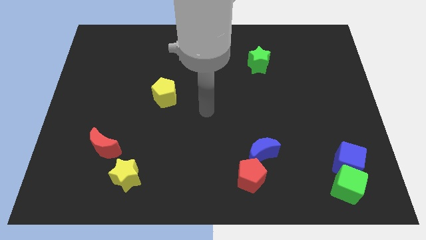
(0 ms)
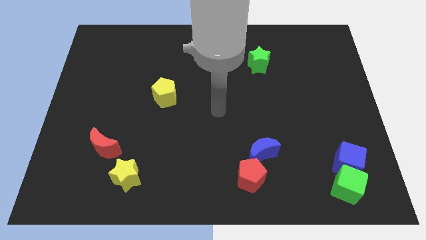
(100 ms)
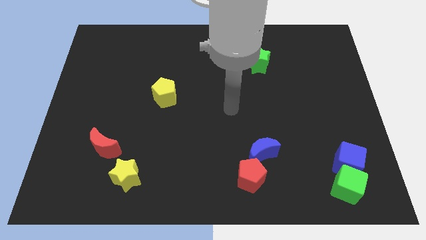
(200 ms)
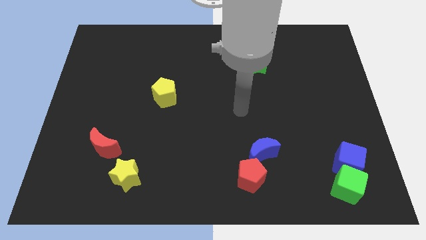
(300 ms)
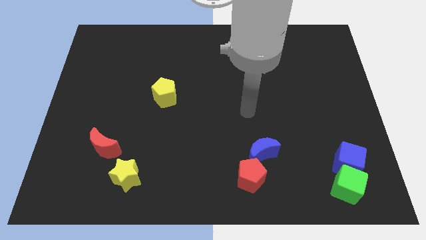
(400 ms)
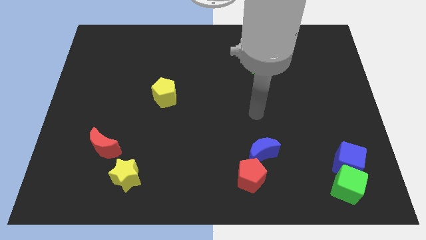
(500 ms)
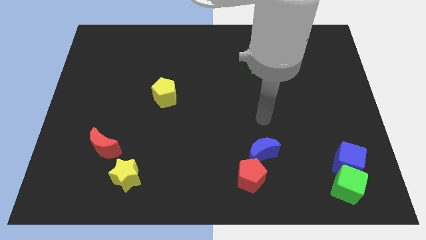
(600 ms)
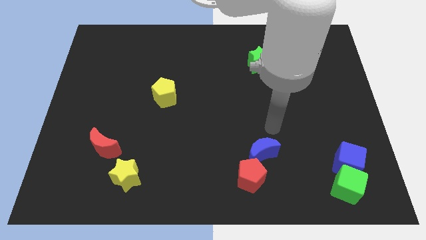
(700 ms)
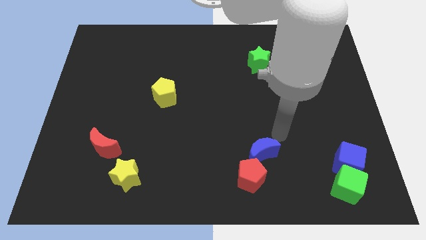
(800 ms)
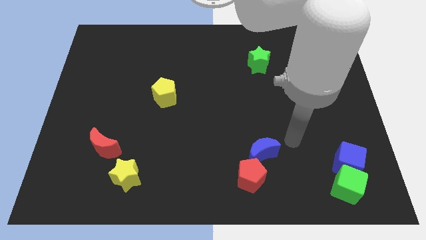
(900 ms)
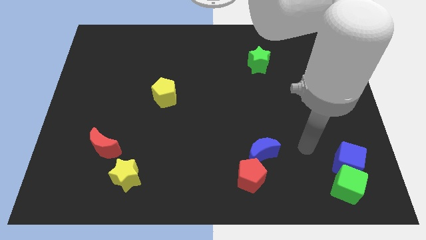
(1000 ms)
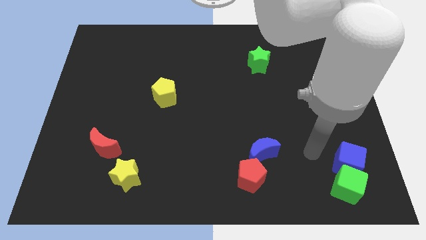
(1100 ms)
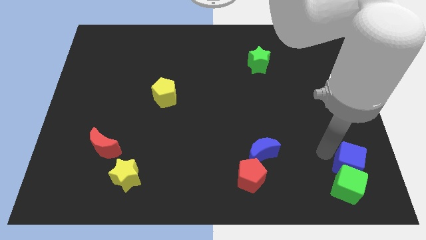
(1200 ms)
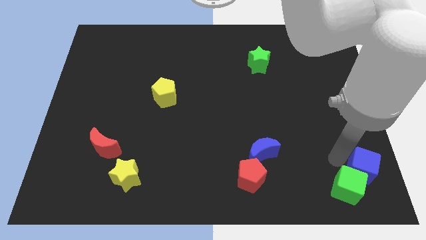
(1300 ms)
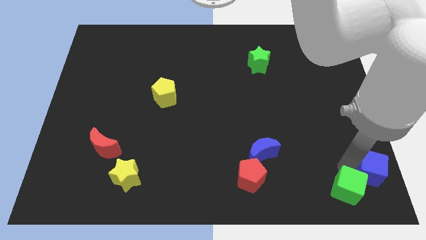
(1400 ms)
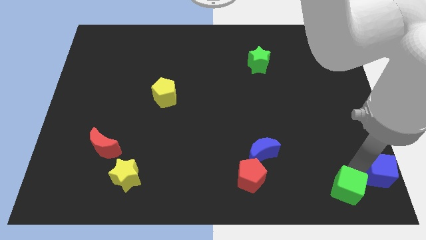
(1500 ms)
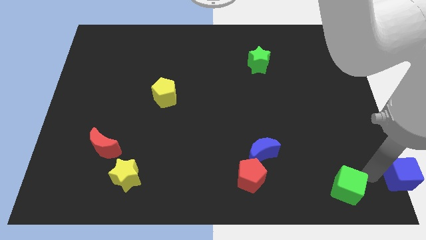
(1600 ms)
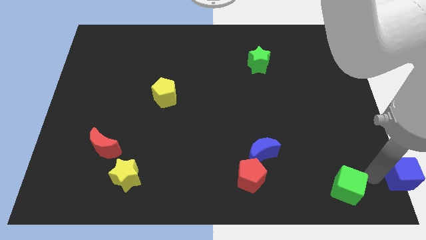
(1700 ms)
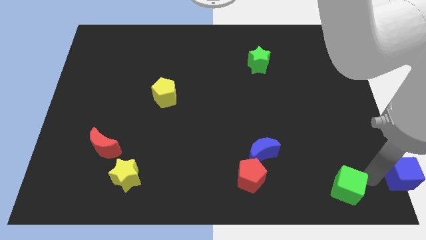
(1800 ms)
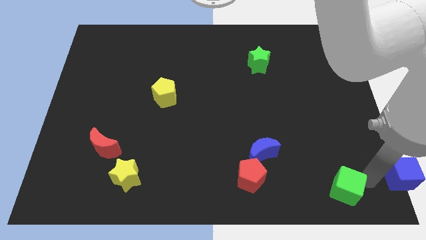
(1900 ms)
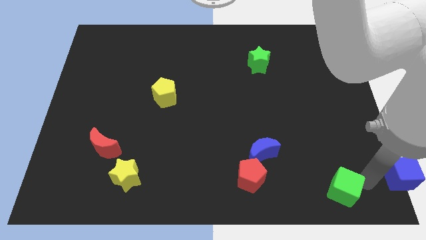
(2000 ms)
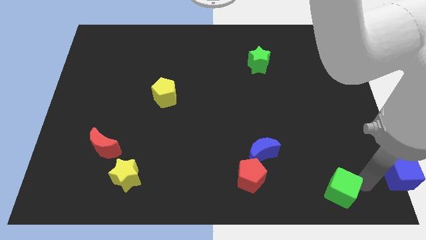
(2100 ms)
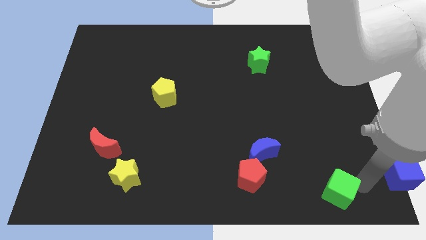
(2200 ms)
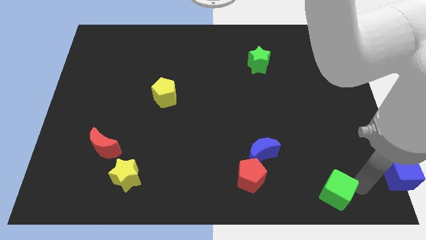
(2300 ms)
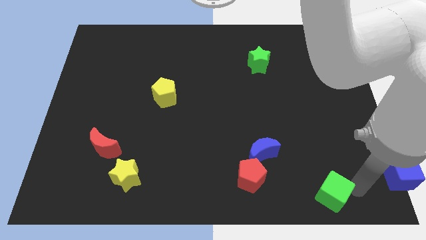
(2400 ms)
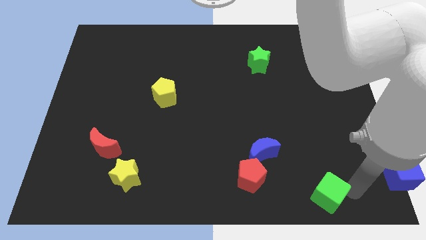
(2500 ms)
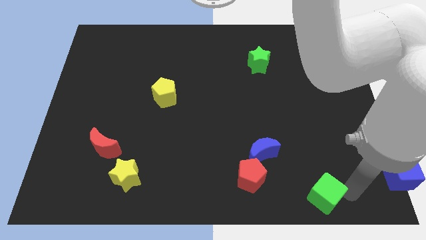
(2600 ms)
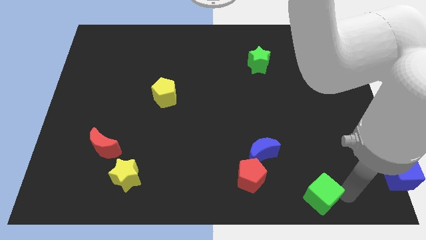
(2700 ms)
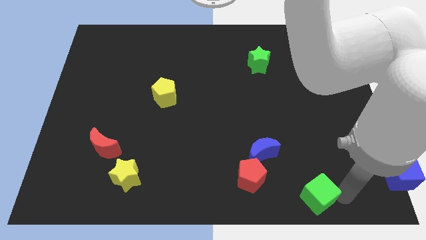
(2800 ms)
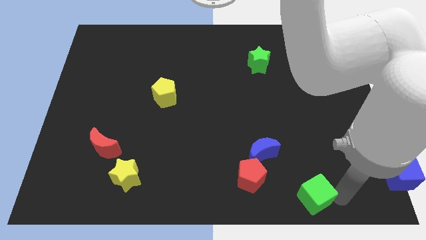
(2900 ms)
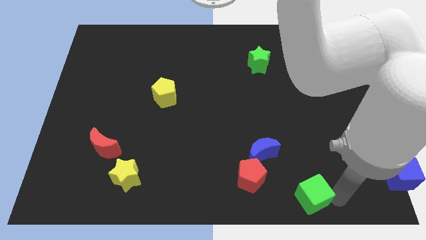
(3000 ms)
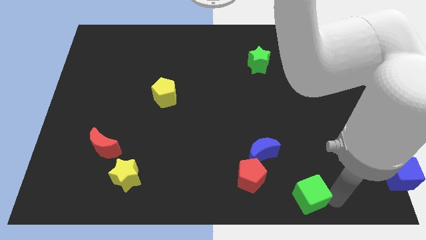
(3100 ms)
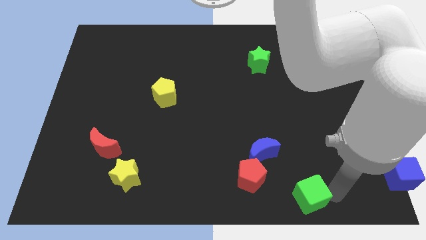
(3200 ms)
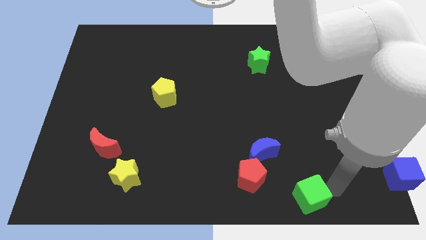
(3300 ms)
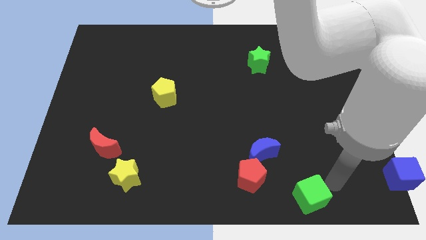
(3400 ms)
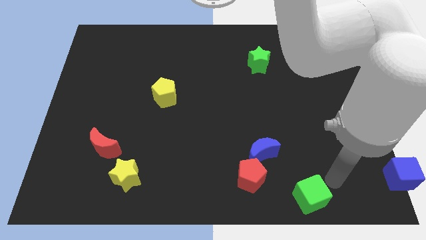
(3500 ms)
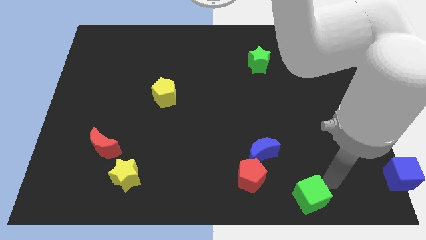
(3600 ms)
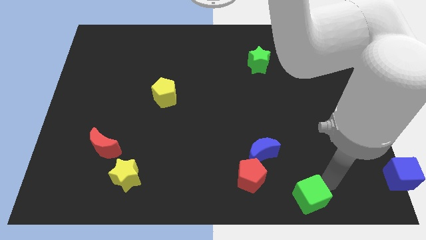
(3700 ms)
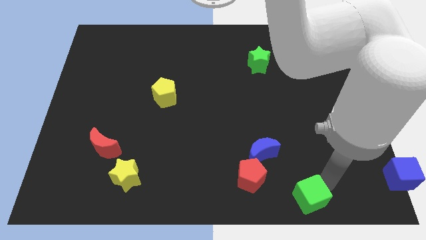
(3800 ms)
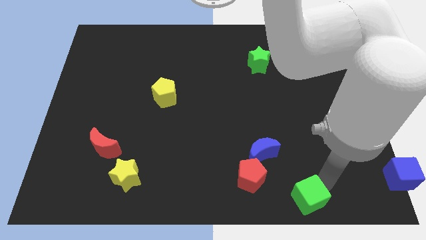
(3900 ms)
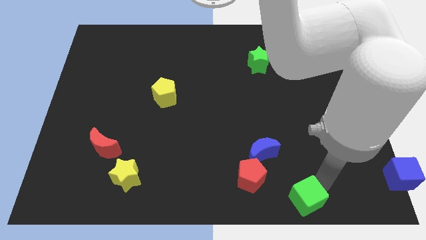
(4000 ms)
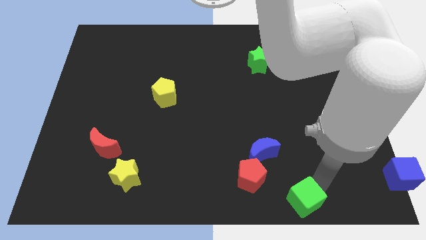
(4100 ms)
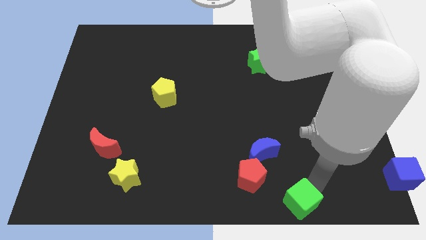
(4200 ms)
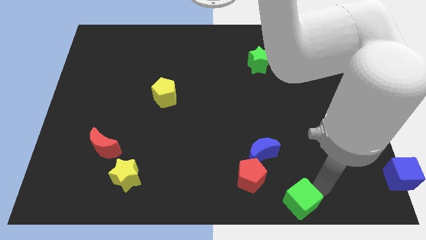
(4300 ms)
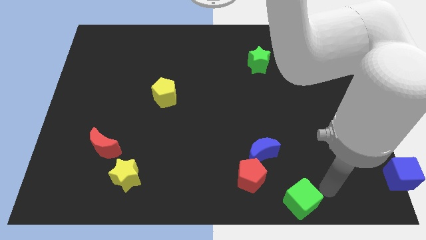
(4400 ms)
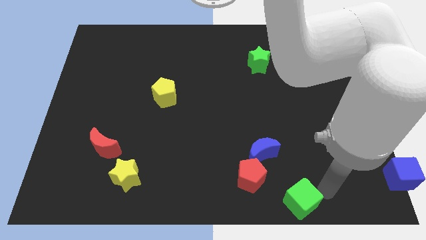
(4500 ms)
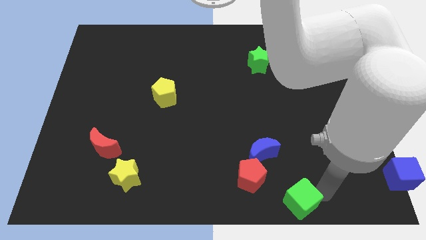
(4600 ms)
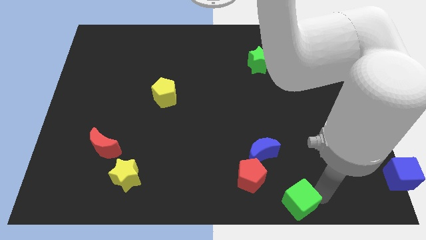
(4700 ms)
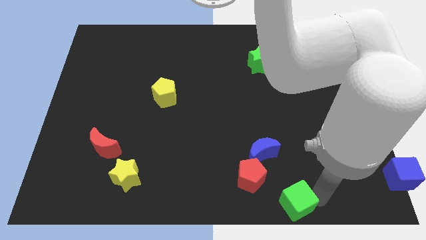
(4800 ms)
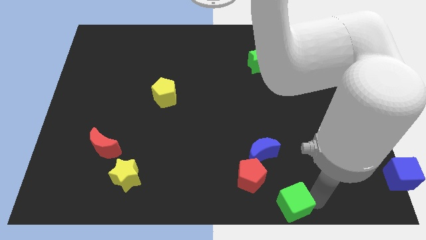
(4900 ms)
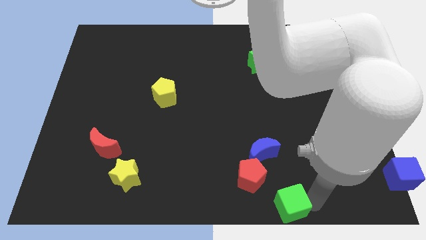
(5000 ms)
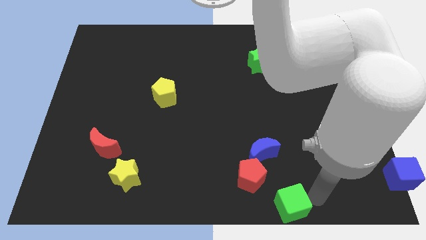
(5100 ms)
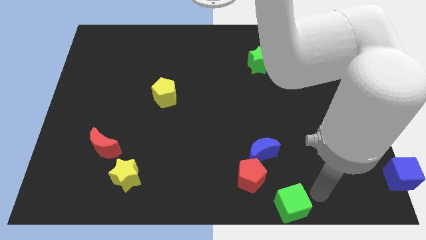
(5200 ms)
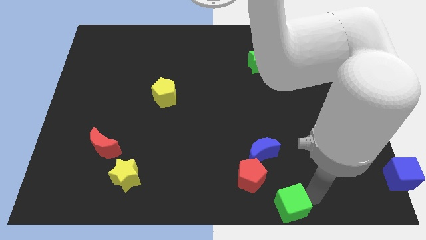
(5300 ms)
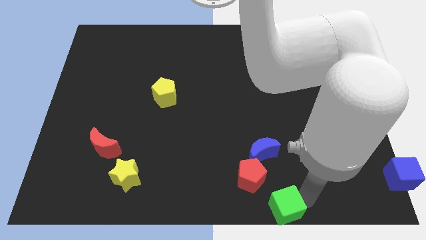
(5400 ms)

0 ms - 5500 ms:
slide the green cube to the bottom side
